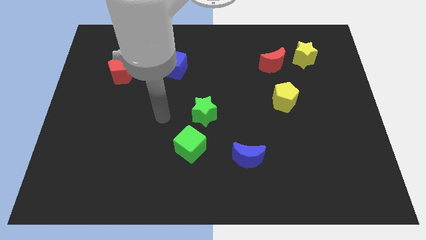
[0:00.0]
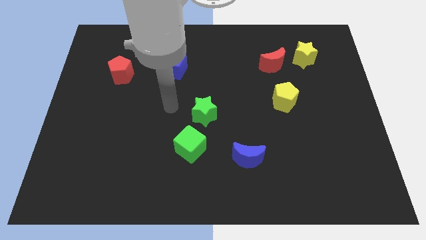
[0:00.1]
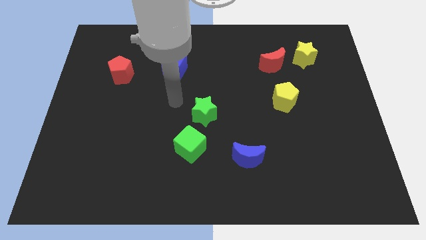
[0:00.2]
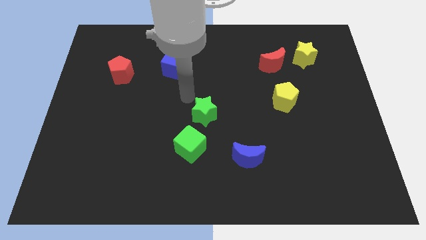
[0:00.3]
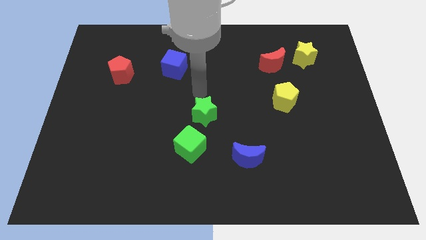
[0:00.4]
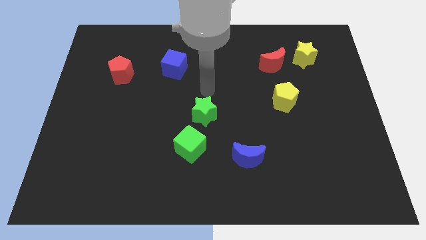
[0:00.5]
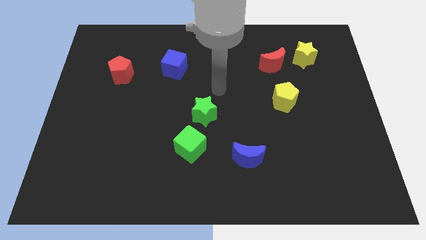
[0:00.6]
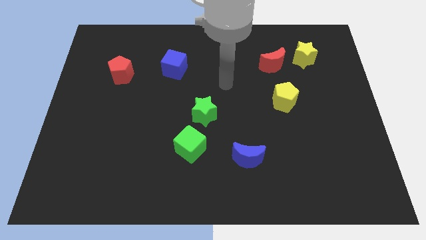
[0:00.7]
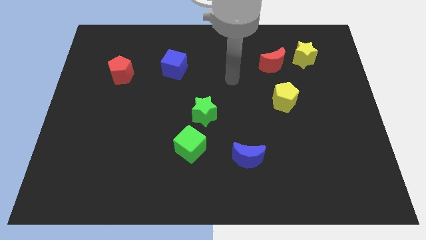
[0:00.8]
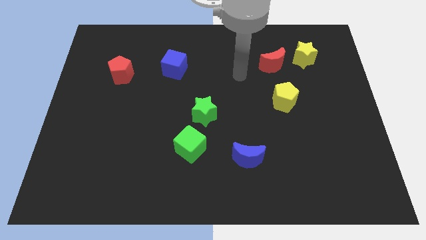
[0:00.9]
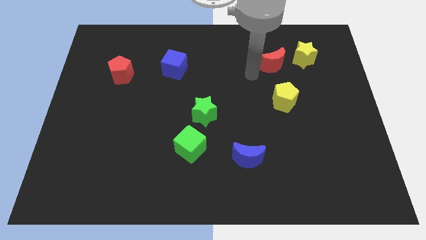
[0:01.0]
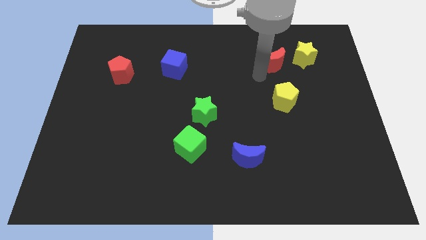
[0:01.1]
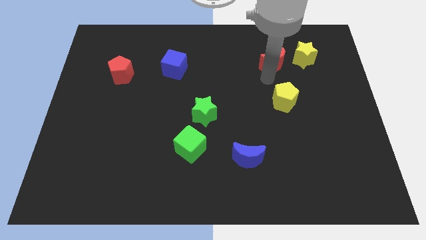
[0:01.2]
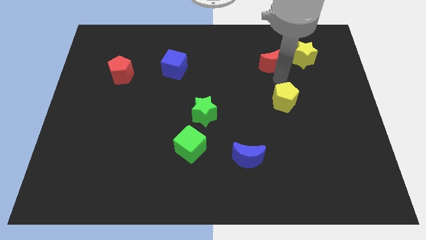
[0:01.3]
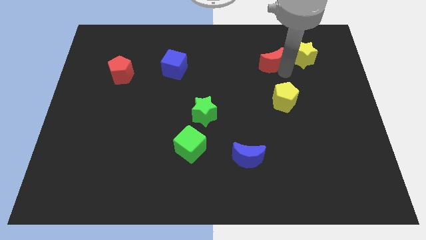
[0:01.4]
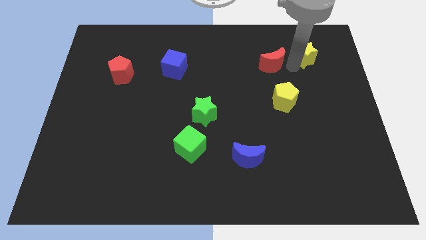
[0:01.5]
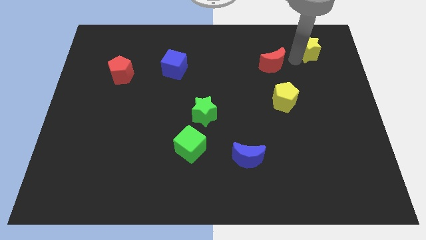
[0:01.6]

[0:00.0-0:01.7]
move the red moon away from the yellow star

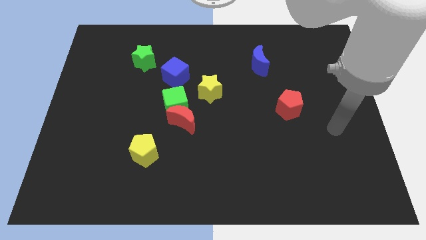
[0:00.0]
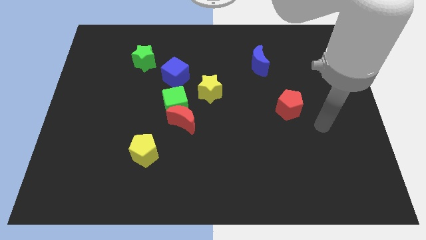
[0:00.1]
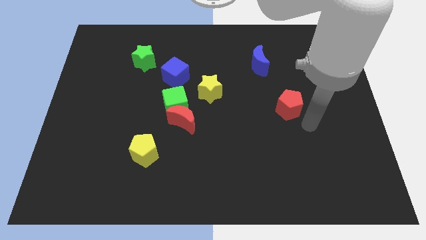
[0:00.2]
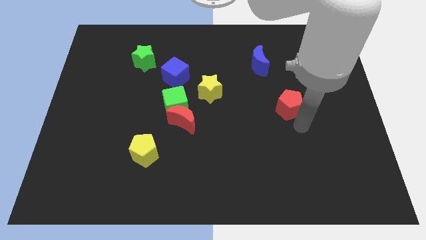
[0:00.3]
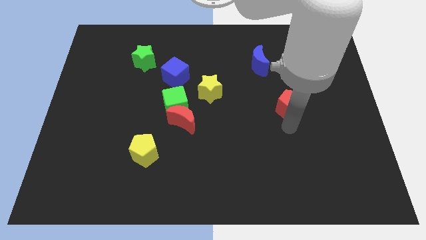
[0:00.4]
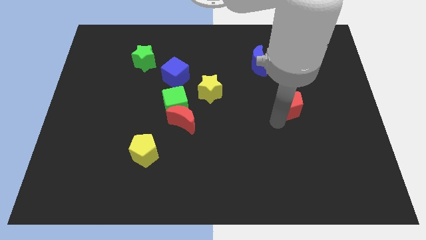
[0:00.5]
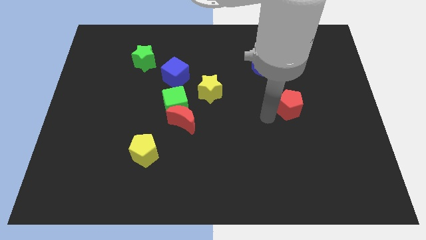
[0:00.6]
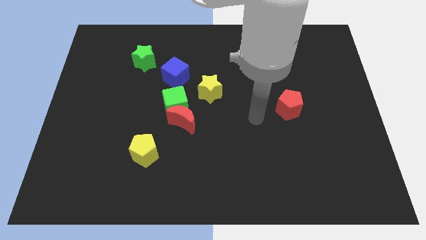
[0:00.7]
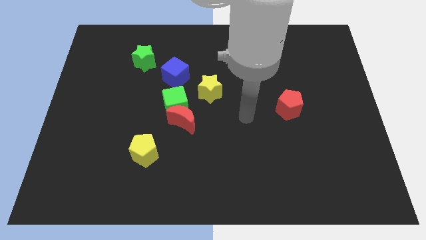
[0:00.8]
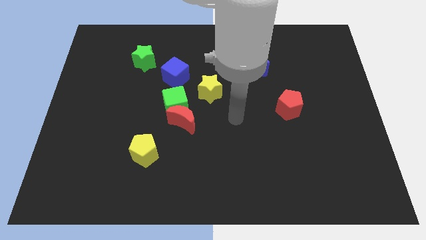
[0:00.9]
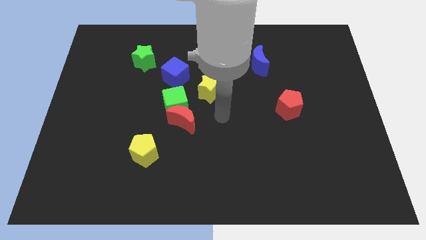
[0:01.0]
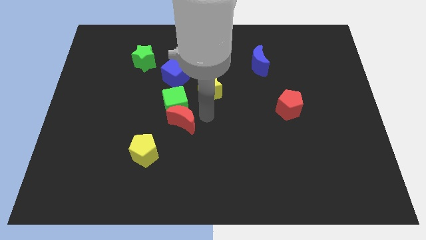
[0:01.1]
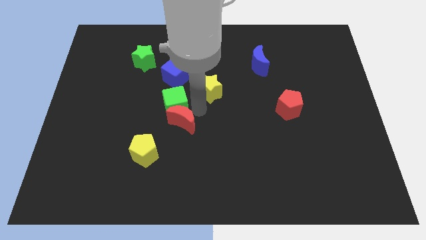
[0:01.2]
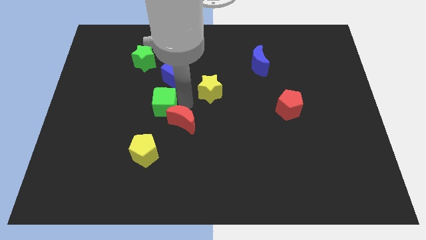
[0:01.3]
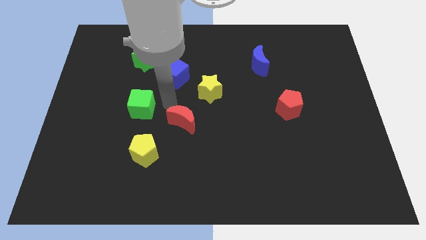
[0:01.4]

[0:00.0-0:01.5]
separate the red moon from the green cube

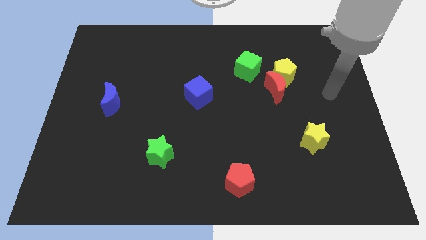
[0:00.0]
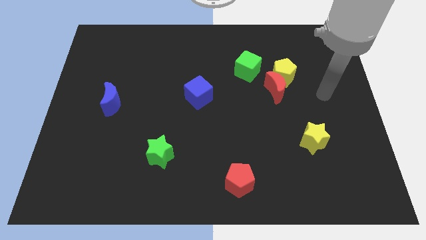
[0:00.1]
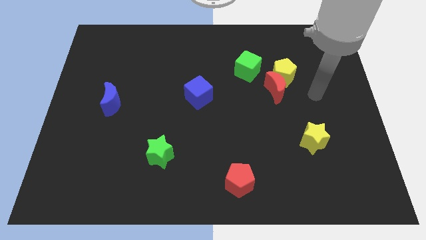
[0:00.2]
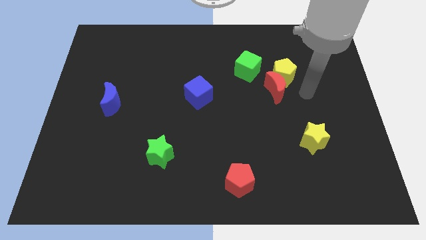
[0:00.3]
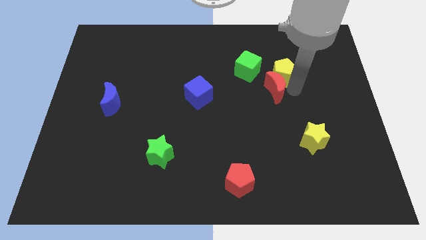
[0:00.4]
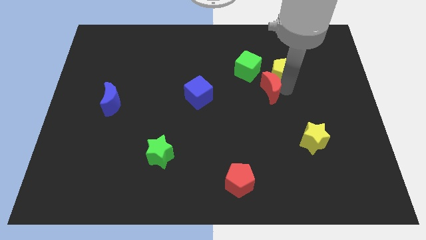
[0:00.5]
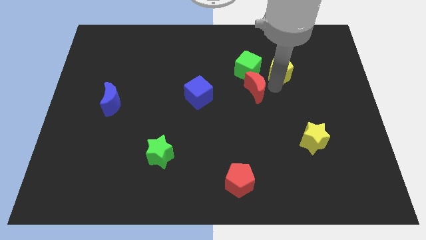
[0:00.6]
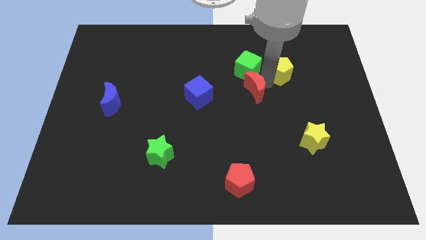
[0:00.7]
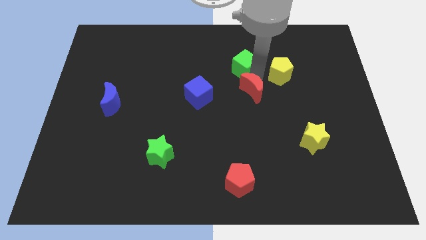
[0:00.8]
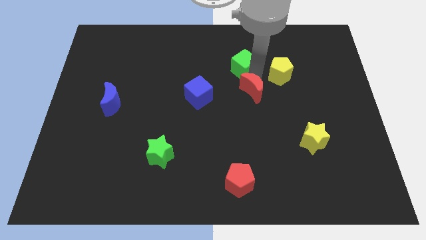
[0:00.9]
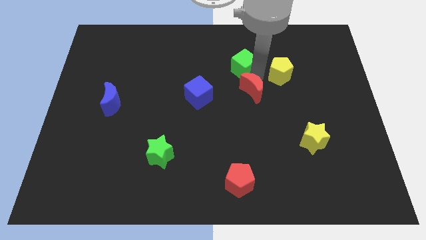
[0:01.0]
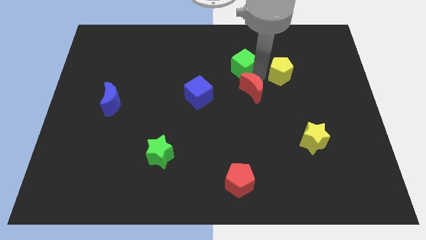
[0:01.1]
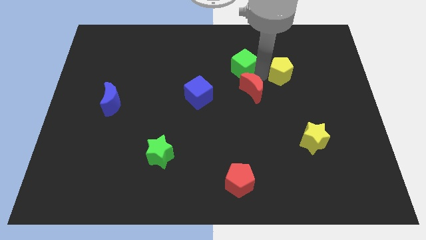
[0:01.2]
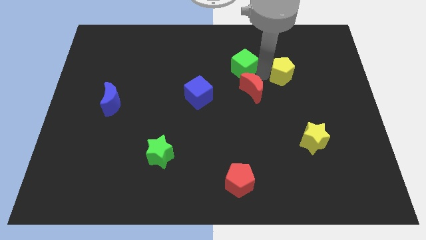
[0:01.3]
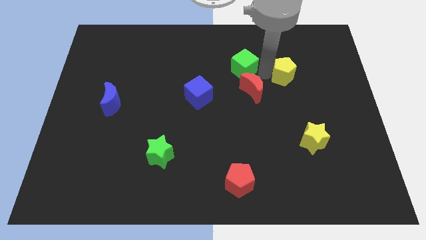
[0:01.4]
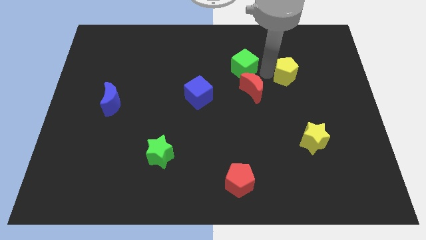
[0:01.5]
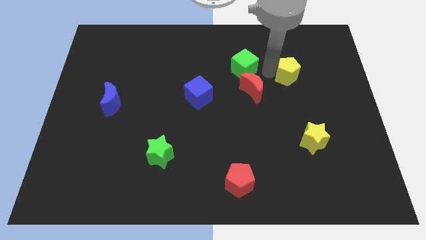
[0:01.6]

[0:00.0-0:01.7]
move the yellow pentagon away from the red moon and green cube

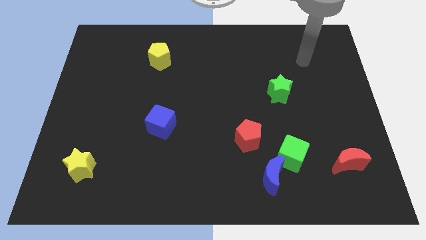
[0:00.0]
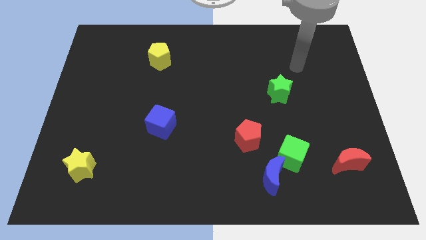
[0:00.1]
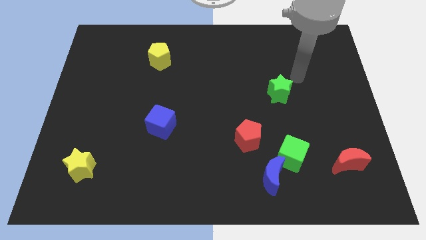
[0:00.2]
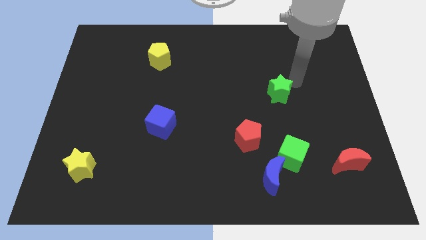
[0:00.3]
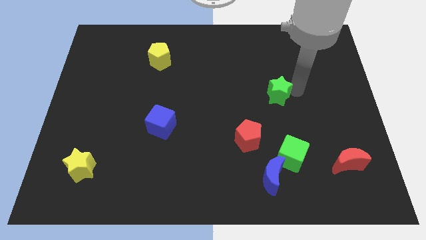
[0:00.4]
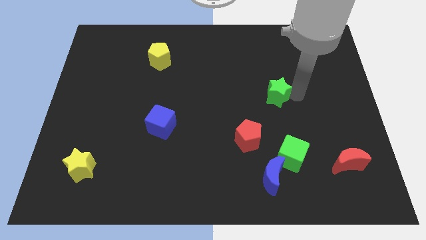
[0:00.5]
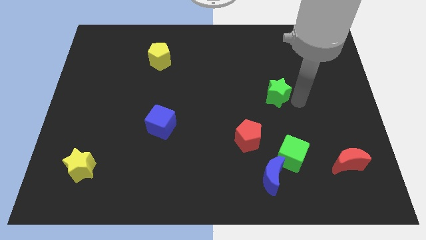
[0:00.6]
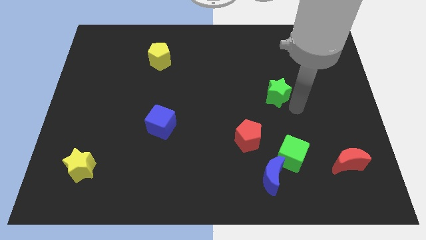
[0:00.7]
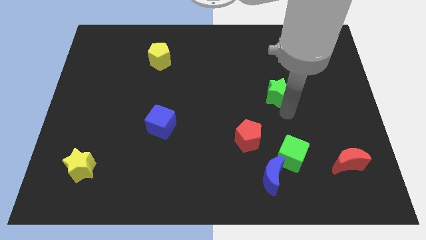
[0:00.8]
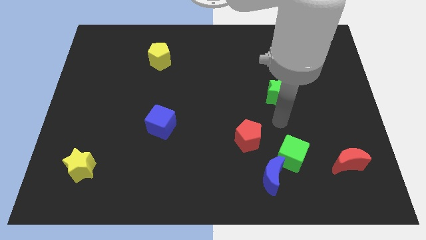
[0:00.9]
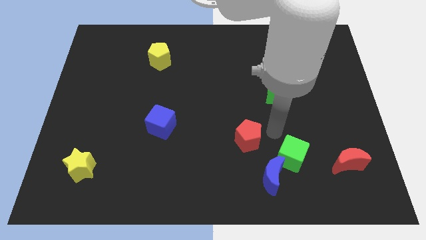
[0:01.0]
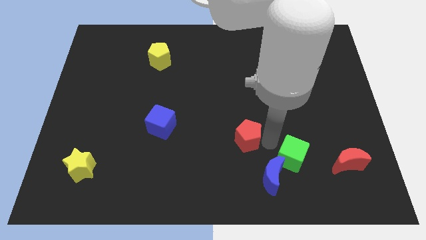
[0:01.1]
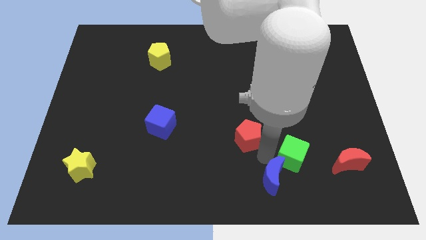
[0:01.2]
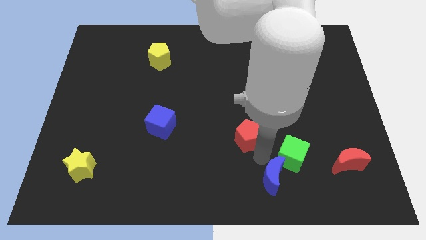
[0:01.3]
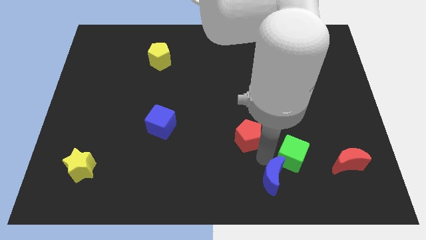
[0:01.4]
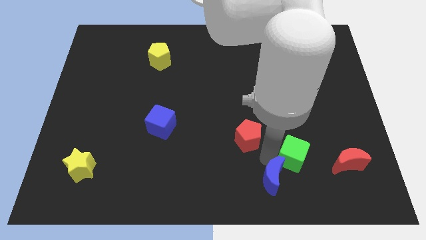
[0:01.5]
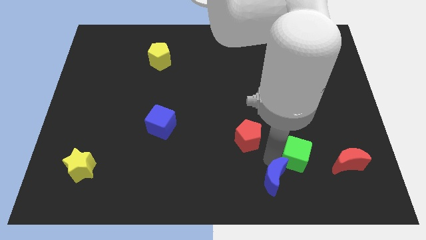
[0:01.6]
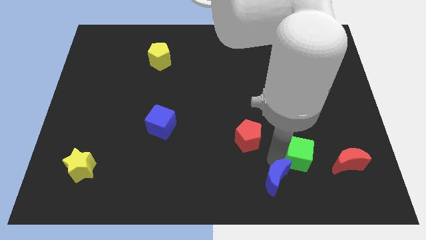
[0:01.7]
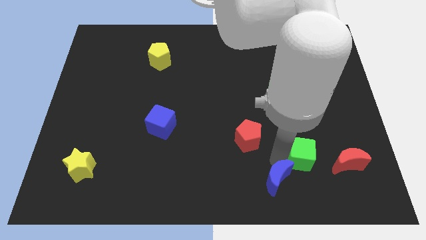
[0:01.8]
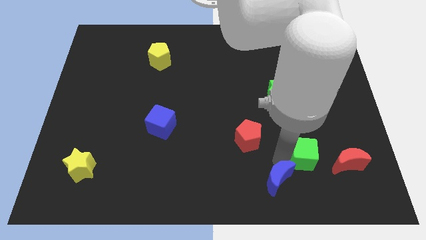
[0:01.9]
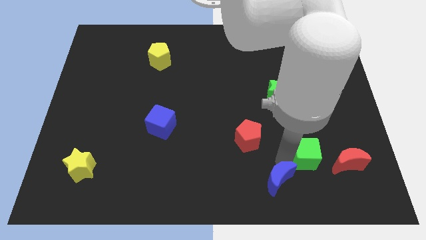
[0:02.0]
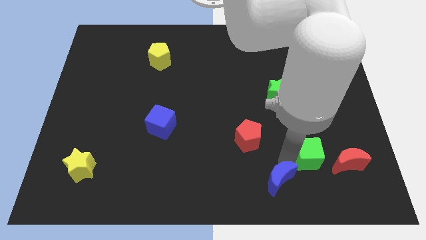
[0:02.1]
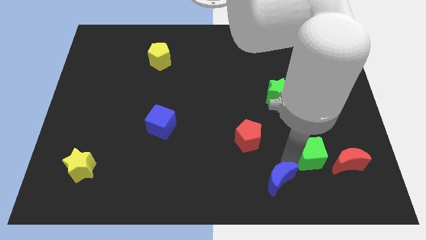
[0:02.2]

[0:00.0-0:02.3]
pull the green cube apart from the blue moon and red pentagon

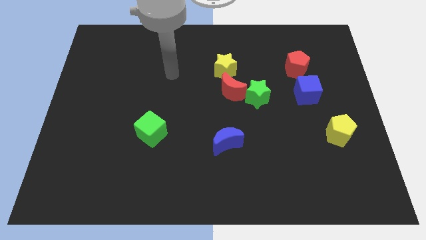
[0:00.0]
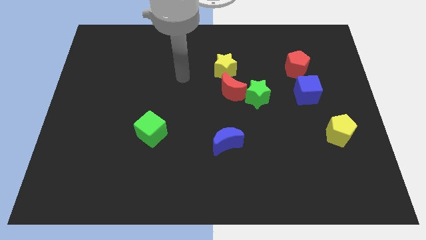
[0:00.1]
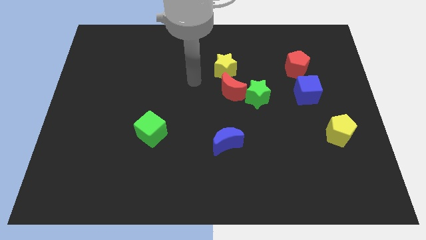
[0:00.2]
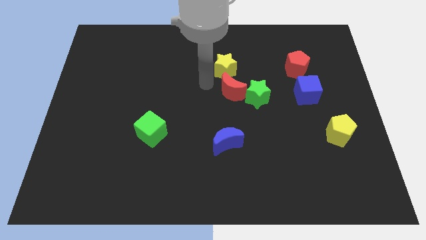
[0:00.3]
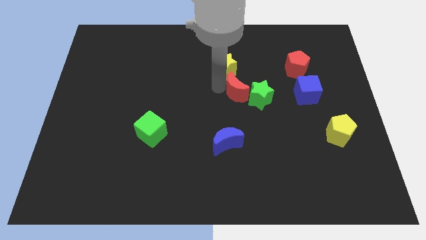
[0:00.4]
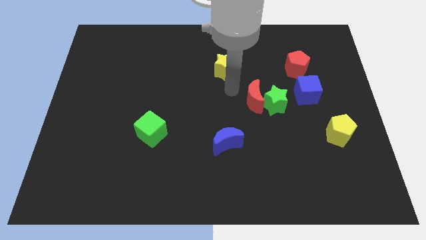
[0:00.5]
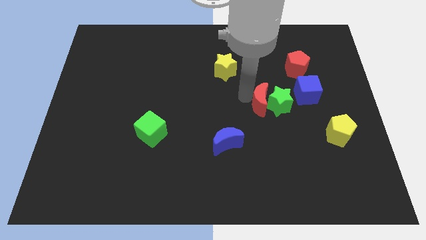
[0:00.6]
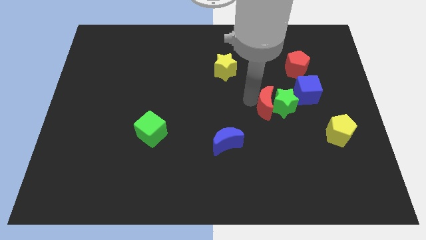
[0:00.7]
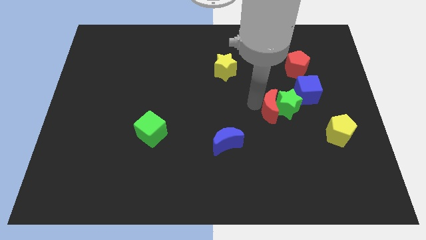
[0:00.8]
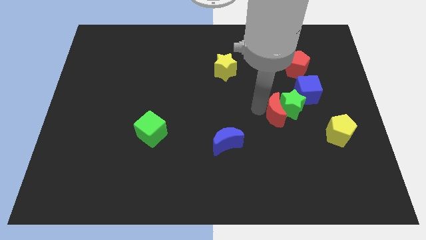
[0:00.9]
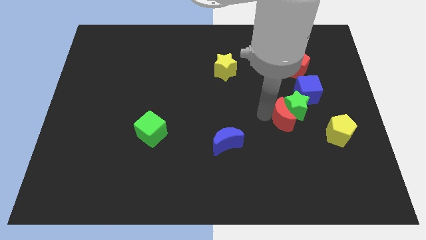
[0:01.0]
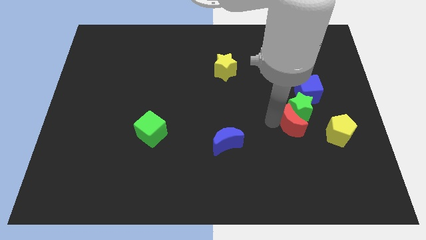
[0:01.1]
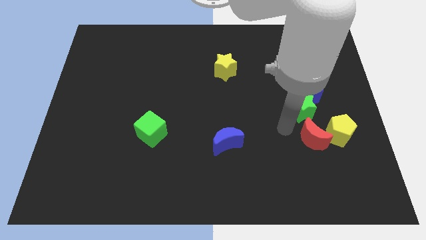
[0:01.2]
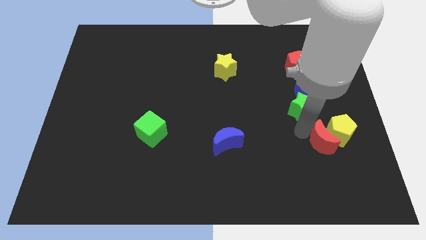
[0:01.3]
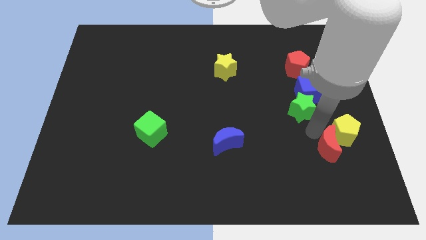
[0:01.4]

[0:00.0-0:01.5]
separate the green star from the red moon

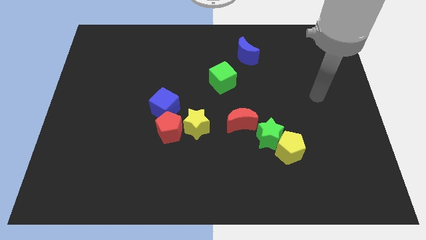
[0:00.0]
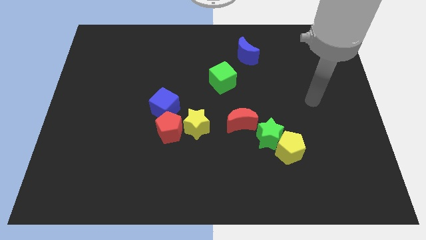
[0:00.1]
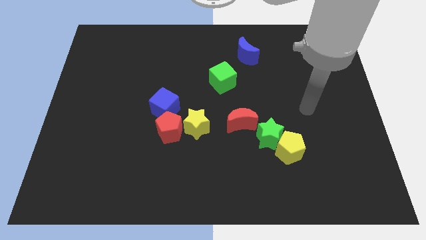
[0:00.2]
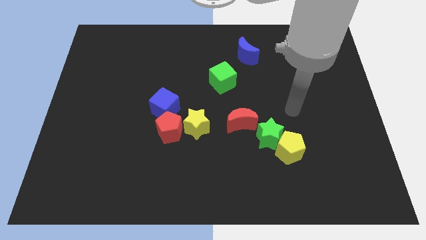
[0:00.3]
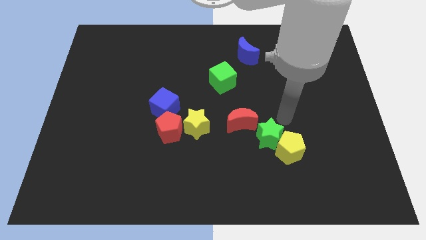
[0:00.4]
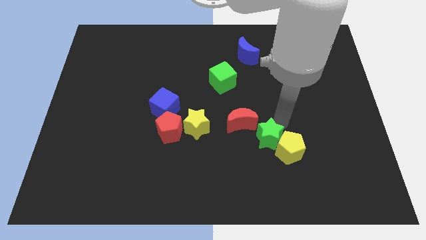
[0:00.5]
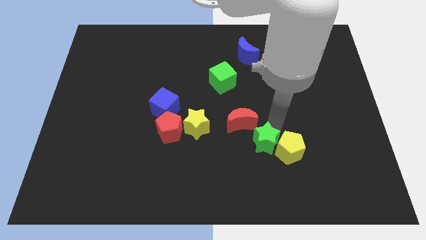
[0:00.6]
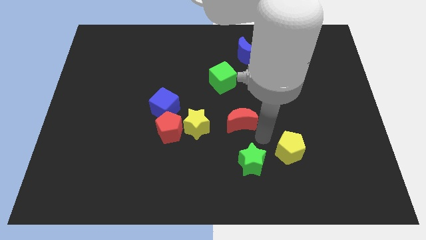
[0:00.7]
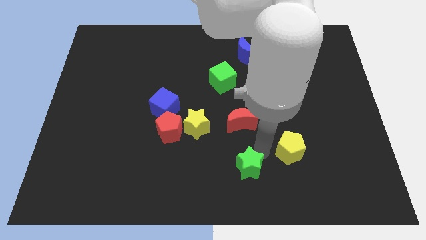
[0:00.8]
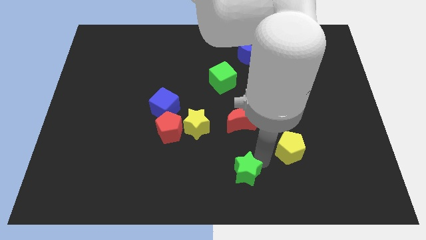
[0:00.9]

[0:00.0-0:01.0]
move the yellow pentagon away from the green star
